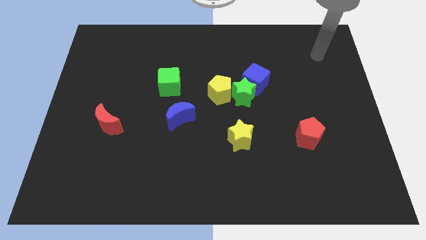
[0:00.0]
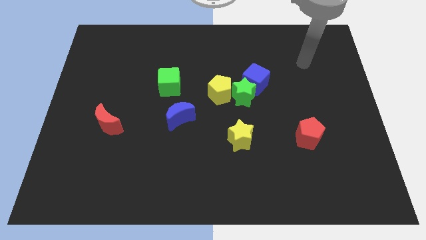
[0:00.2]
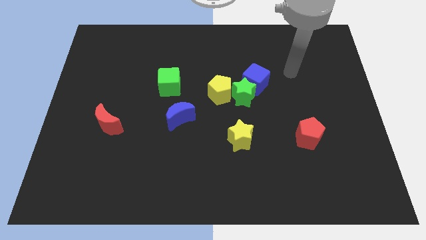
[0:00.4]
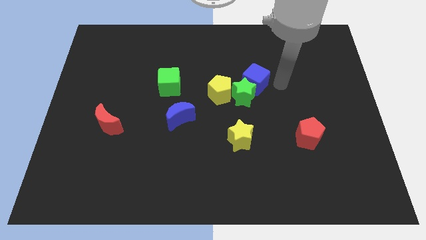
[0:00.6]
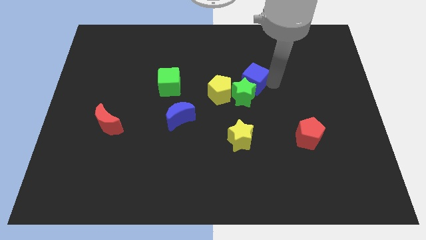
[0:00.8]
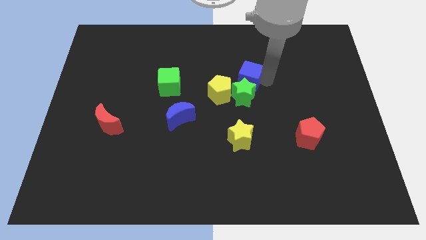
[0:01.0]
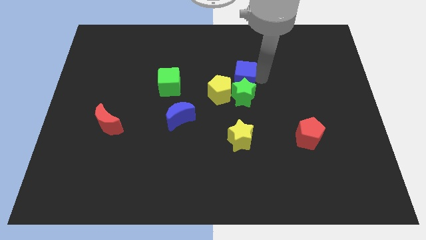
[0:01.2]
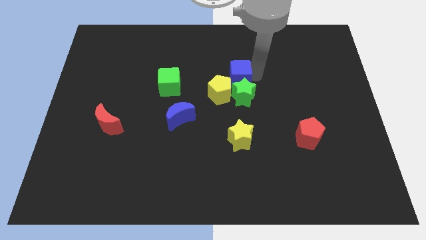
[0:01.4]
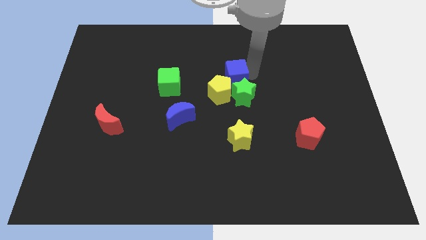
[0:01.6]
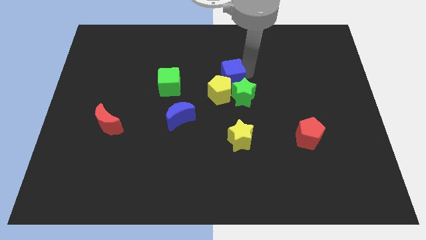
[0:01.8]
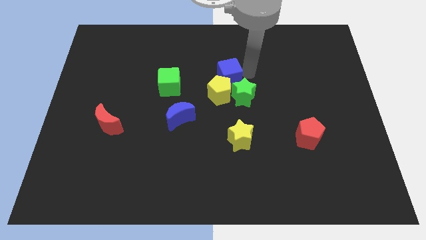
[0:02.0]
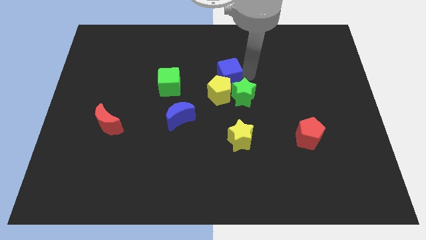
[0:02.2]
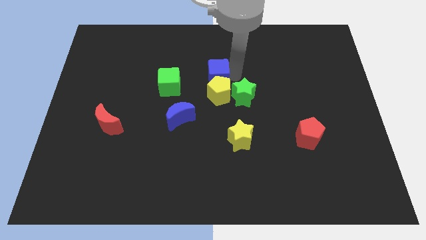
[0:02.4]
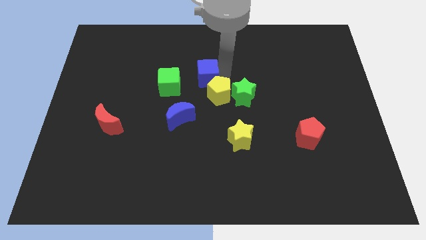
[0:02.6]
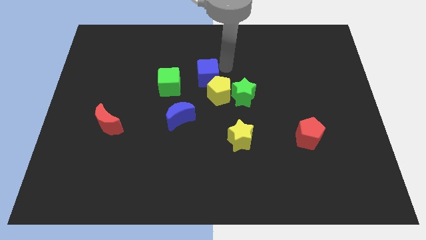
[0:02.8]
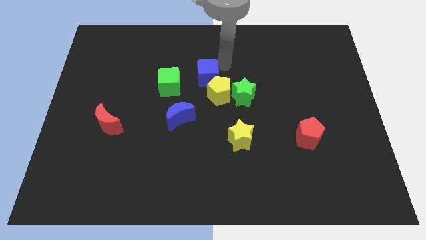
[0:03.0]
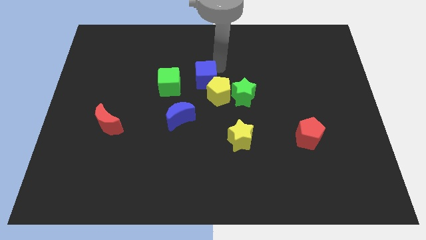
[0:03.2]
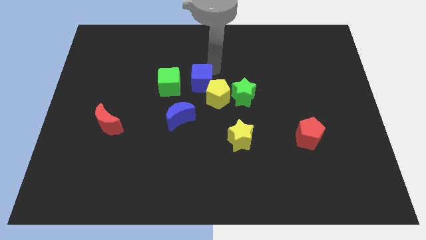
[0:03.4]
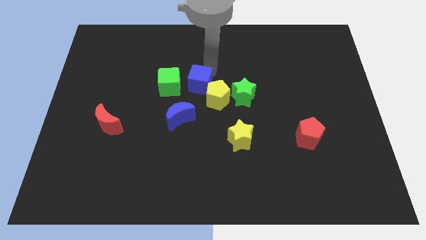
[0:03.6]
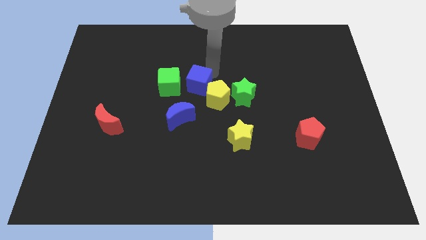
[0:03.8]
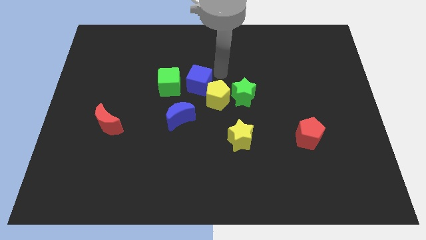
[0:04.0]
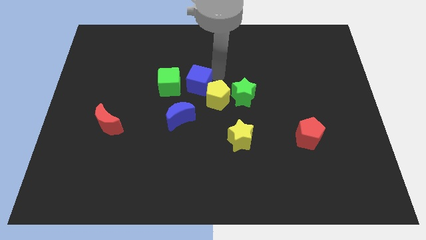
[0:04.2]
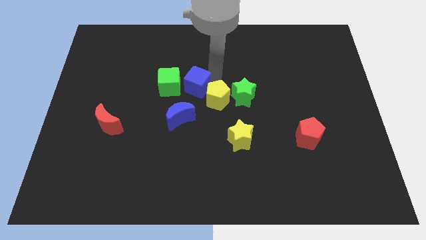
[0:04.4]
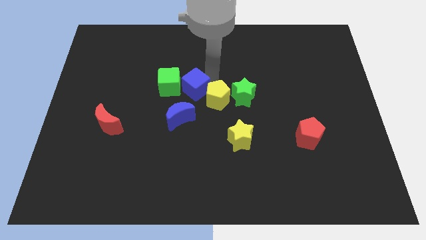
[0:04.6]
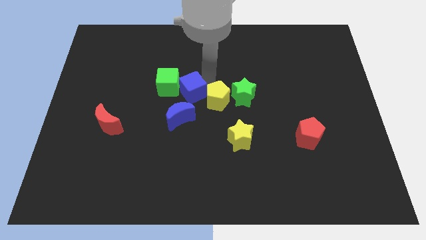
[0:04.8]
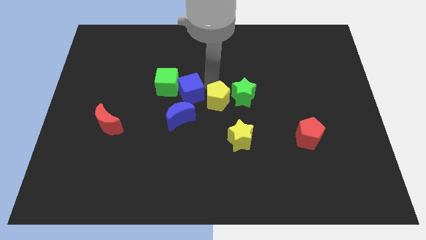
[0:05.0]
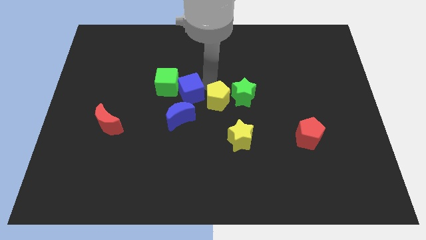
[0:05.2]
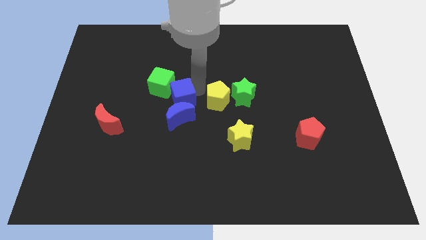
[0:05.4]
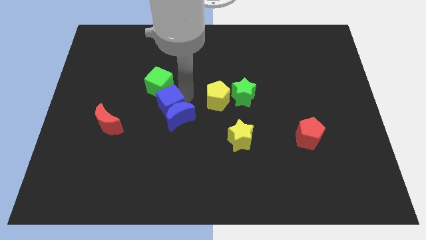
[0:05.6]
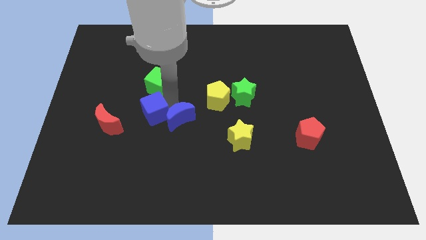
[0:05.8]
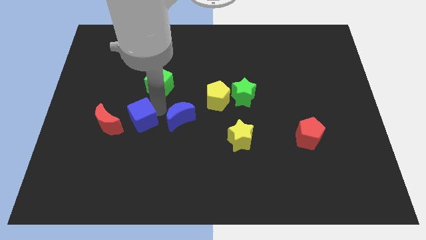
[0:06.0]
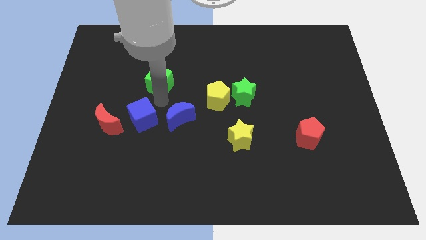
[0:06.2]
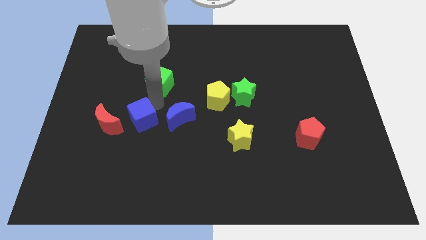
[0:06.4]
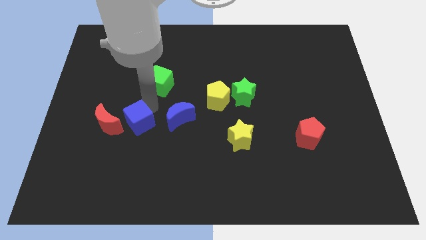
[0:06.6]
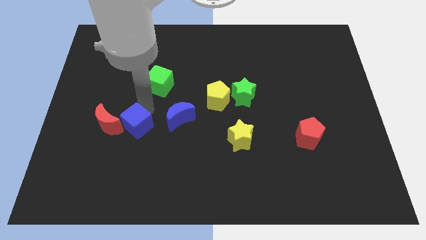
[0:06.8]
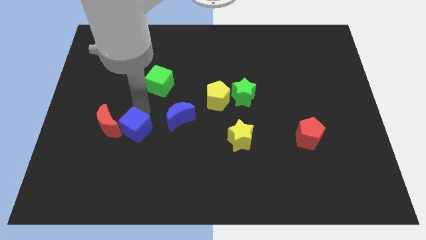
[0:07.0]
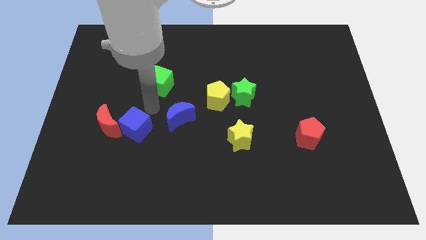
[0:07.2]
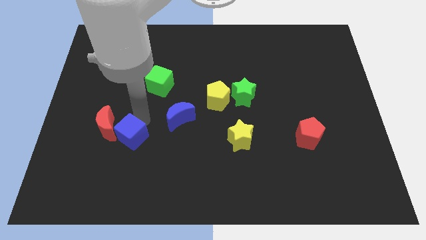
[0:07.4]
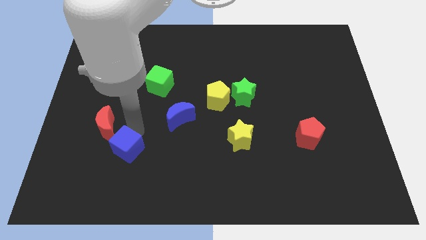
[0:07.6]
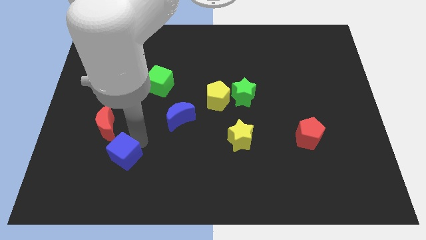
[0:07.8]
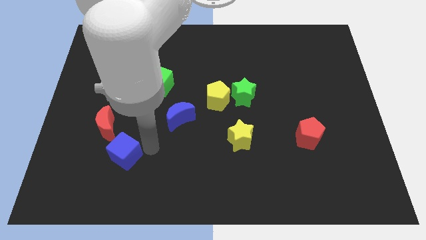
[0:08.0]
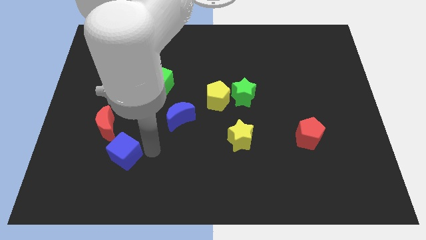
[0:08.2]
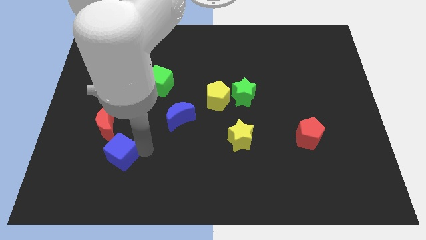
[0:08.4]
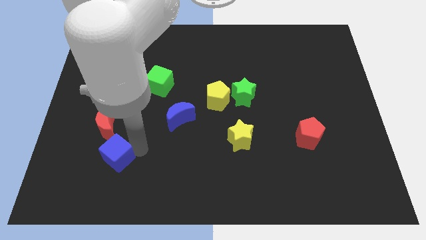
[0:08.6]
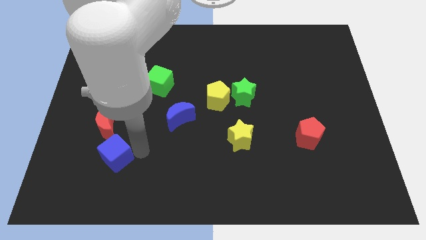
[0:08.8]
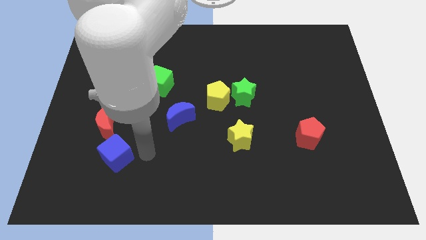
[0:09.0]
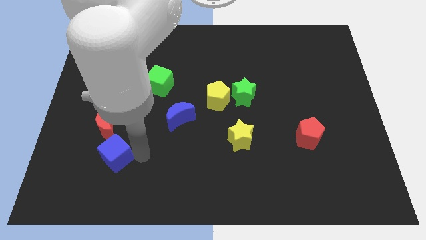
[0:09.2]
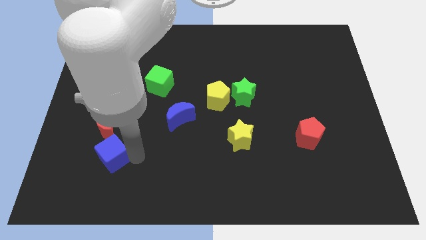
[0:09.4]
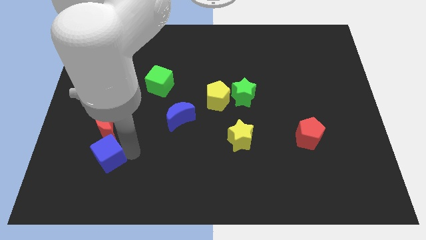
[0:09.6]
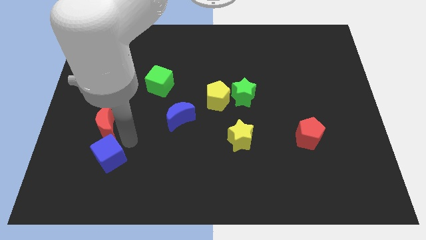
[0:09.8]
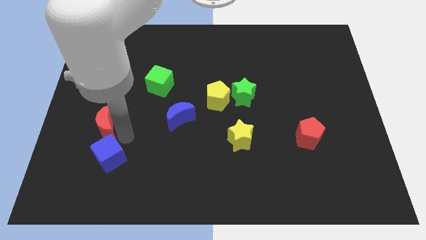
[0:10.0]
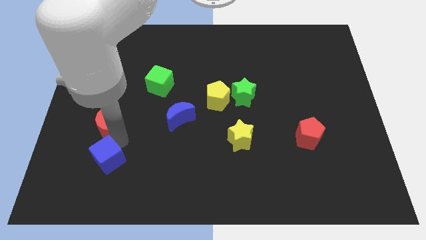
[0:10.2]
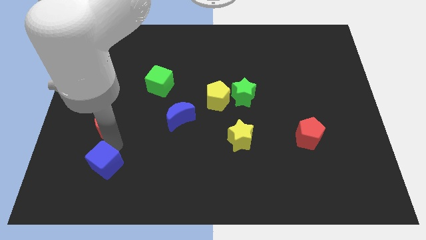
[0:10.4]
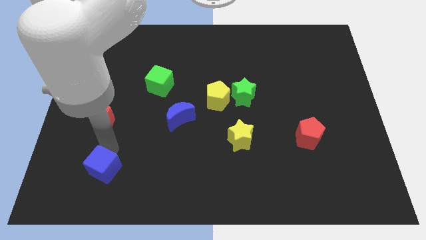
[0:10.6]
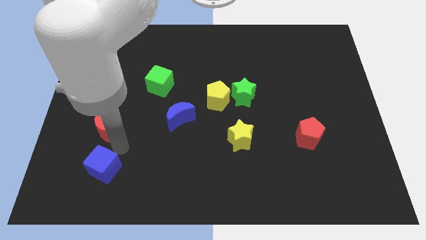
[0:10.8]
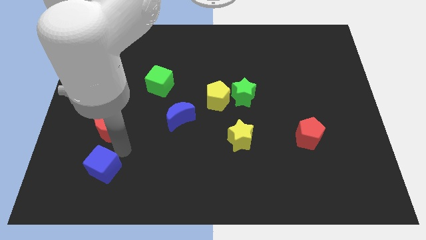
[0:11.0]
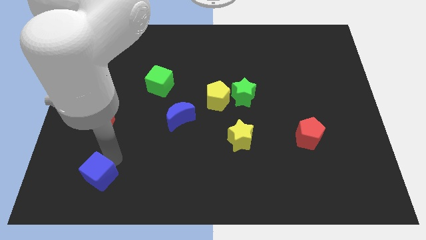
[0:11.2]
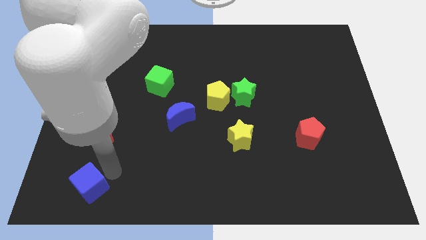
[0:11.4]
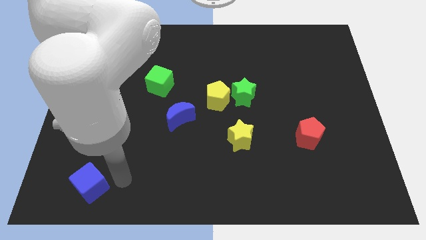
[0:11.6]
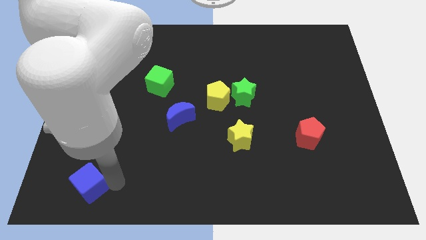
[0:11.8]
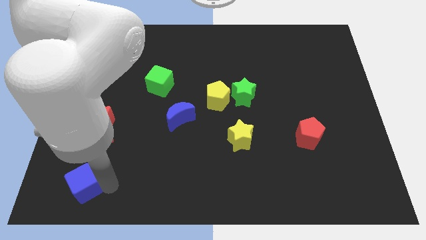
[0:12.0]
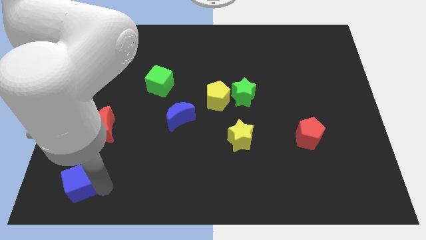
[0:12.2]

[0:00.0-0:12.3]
move the blue cube to the bottom left of the board

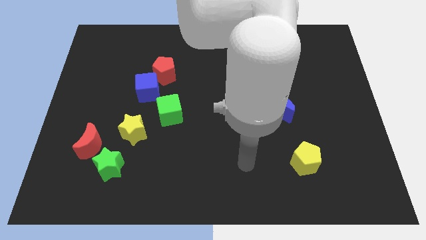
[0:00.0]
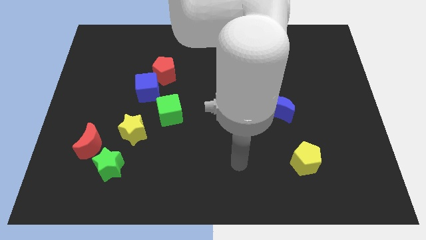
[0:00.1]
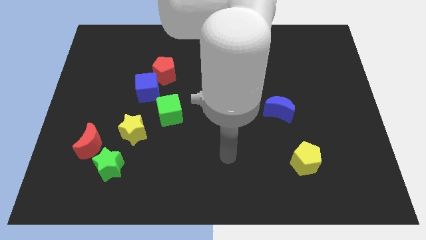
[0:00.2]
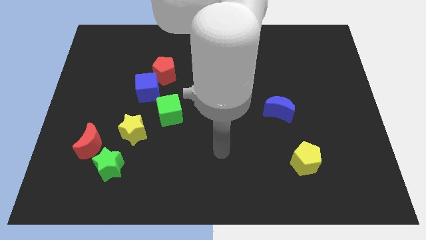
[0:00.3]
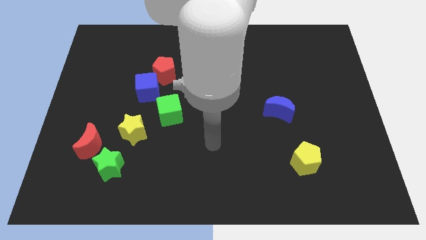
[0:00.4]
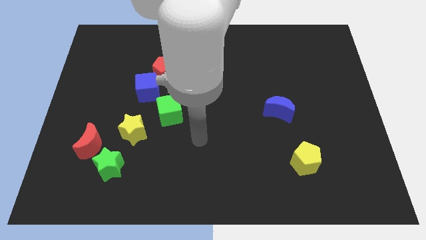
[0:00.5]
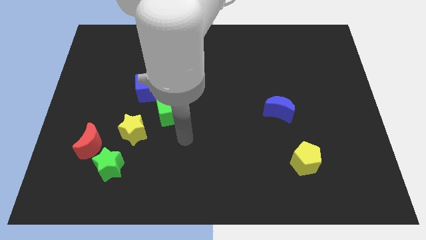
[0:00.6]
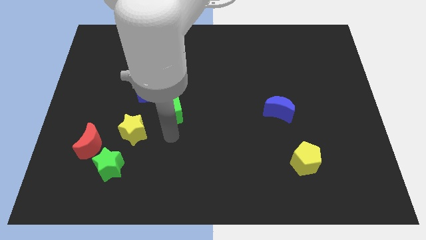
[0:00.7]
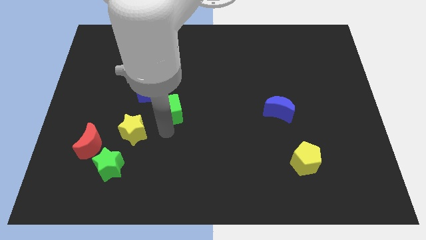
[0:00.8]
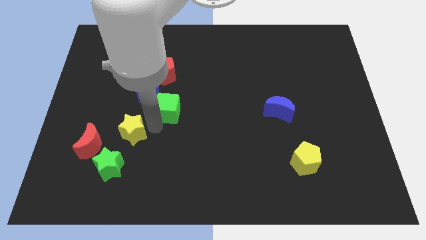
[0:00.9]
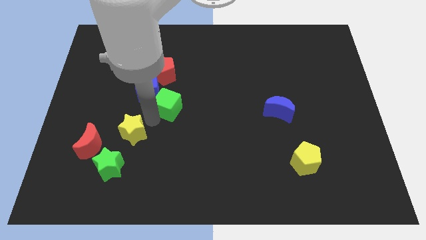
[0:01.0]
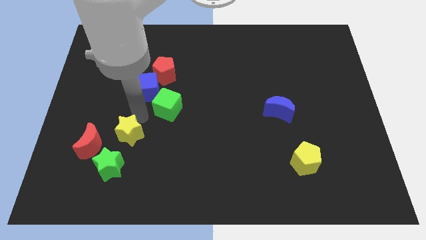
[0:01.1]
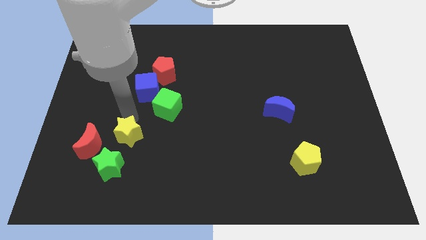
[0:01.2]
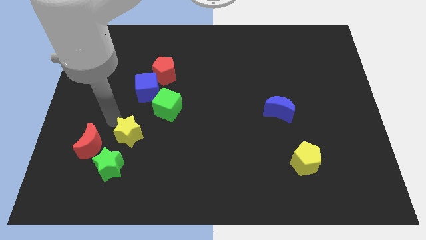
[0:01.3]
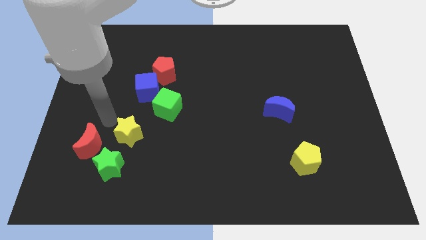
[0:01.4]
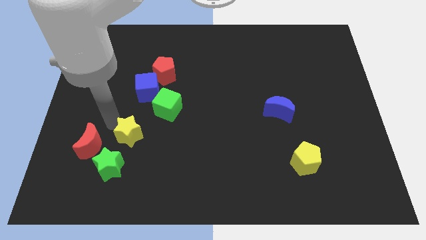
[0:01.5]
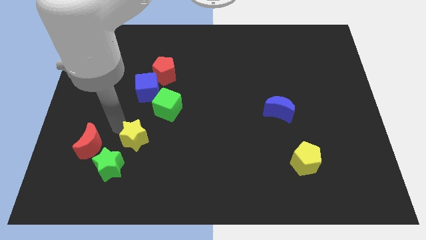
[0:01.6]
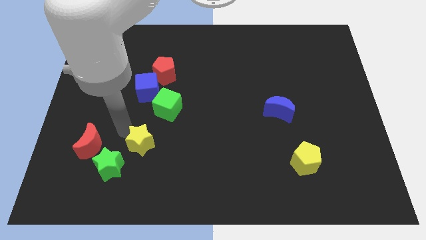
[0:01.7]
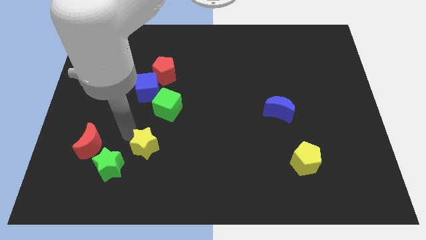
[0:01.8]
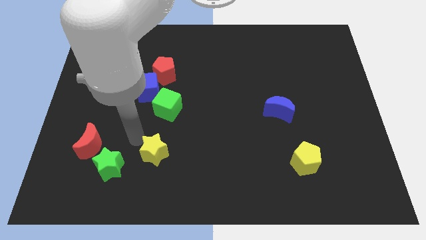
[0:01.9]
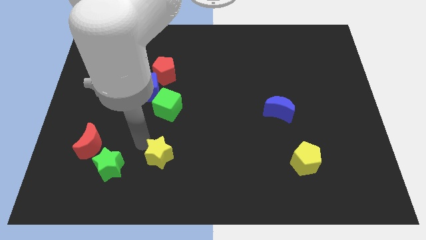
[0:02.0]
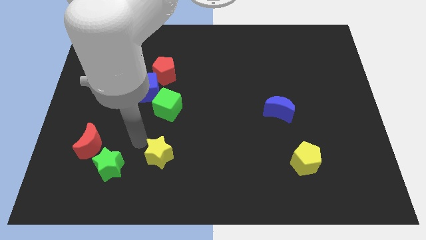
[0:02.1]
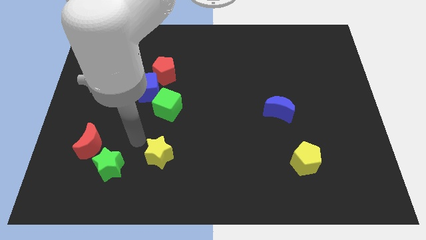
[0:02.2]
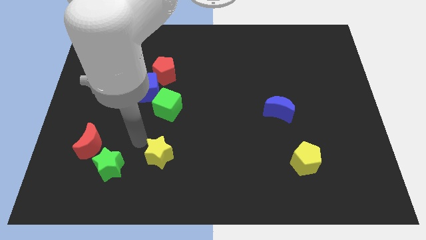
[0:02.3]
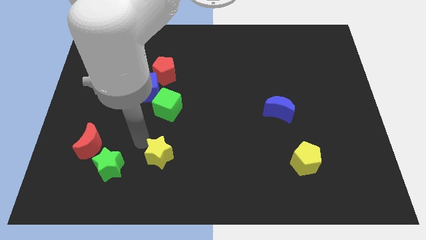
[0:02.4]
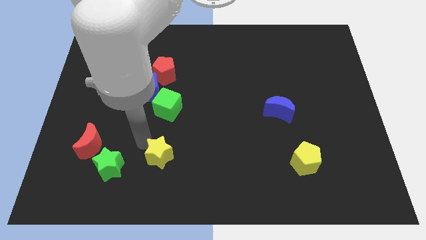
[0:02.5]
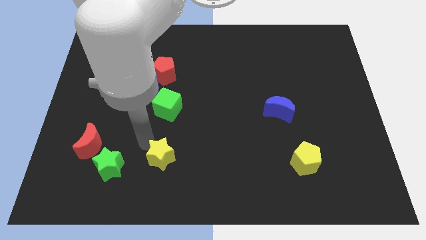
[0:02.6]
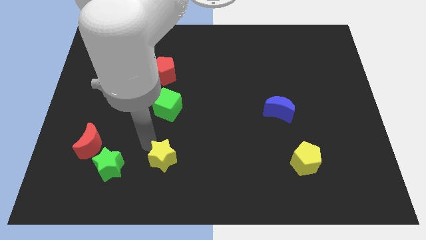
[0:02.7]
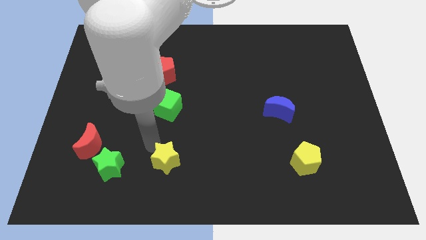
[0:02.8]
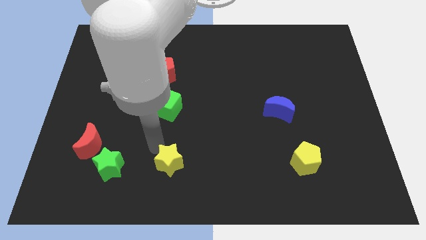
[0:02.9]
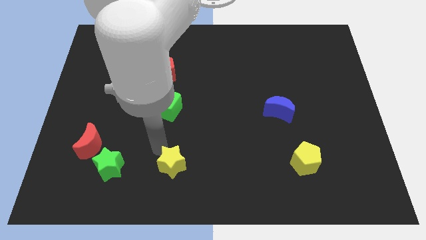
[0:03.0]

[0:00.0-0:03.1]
move the yellow star to the bottom
